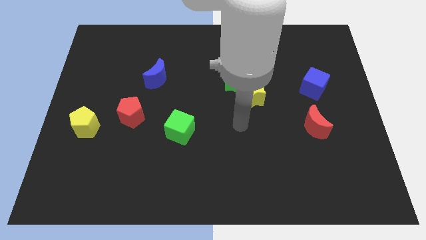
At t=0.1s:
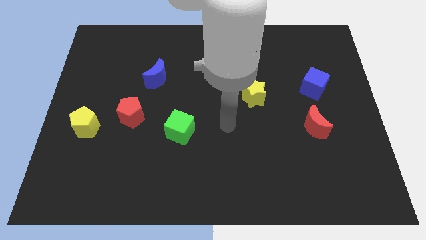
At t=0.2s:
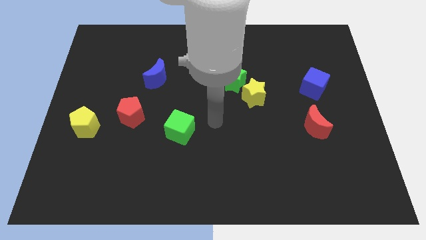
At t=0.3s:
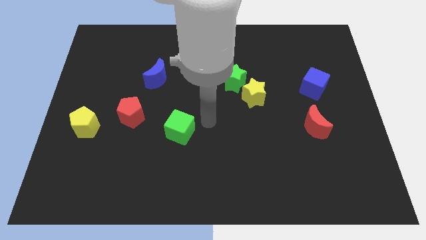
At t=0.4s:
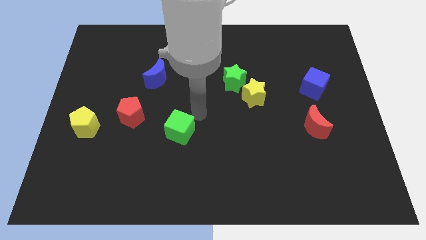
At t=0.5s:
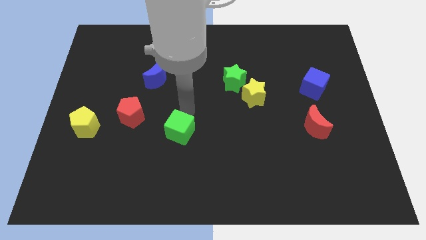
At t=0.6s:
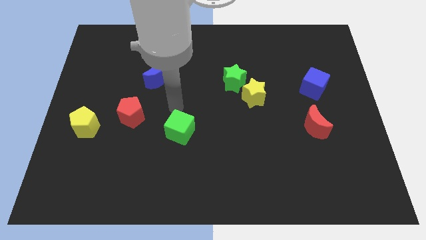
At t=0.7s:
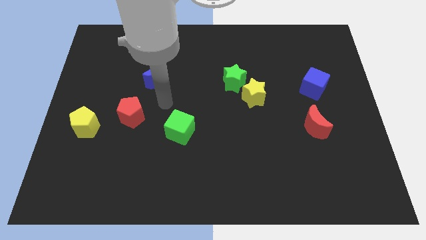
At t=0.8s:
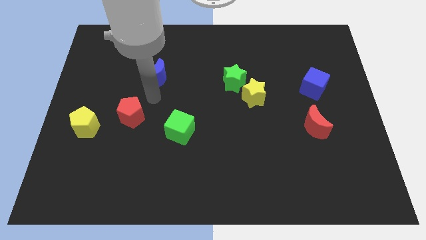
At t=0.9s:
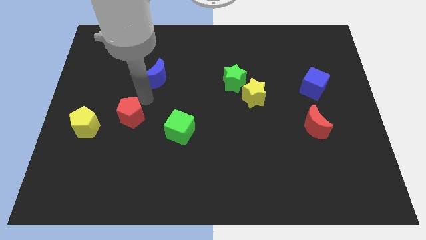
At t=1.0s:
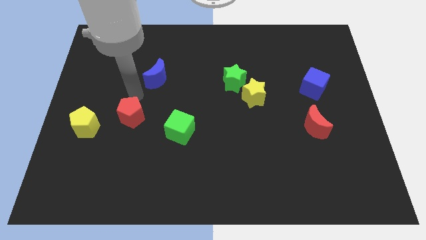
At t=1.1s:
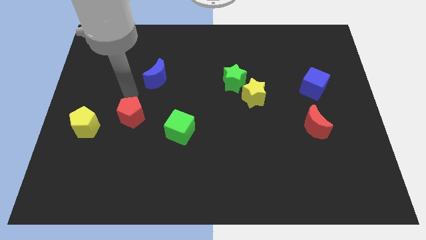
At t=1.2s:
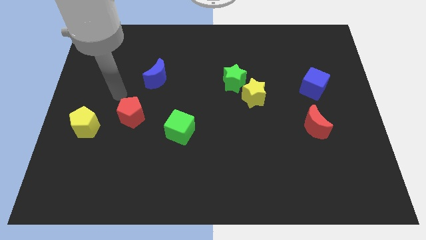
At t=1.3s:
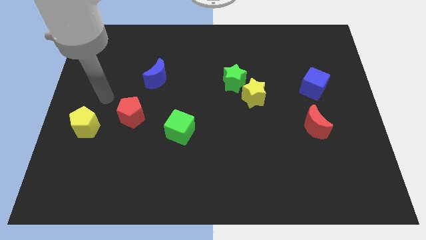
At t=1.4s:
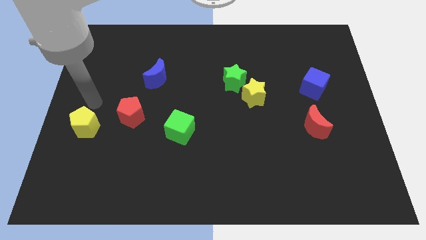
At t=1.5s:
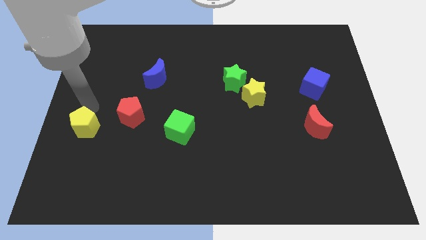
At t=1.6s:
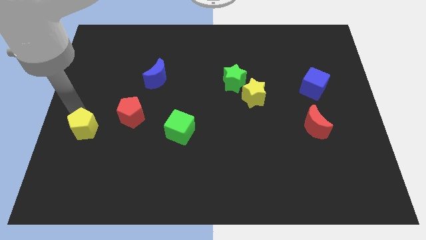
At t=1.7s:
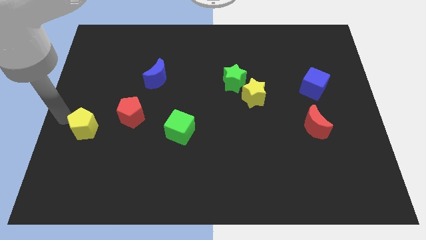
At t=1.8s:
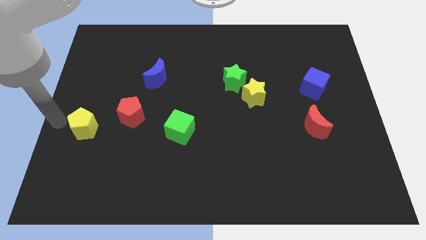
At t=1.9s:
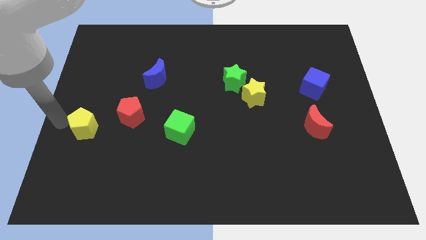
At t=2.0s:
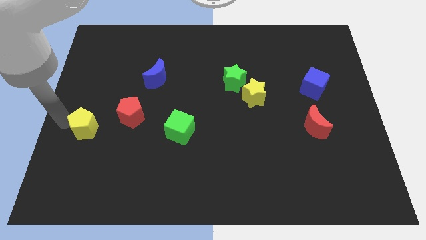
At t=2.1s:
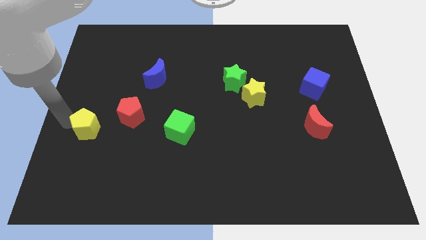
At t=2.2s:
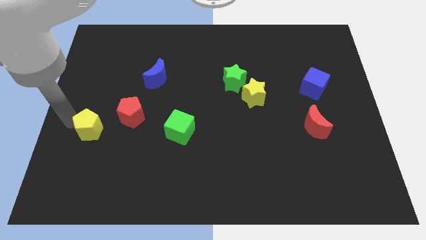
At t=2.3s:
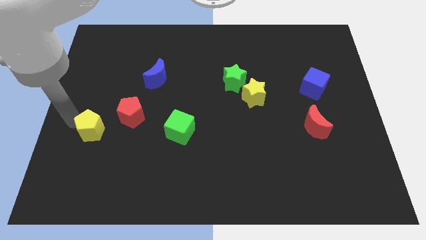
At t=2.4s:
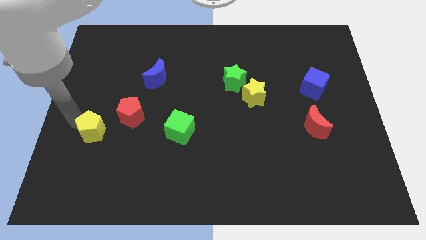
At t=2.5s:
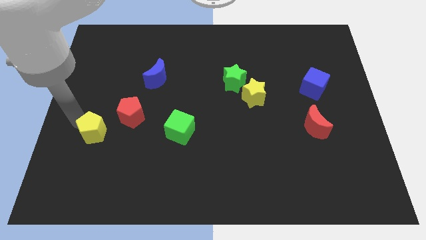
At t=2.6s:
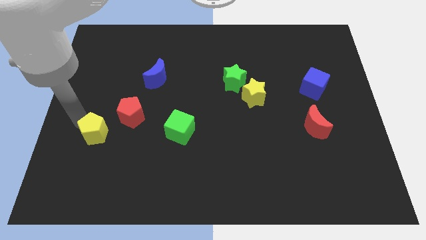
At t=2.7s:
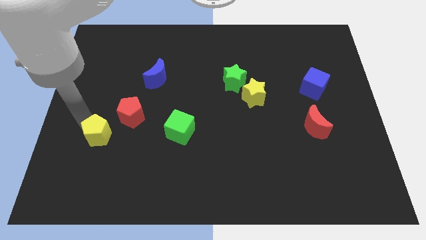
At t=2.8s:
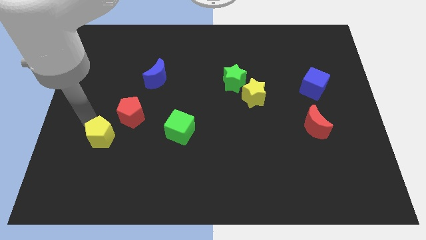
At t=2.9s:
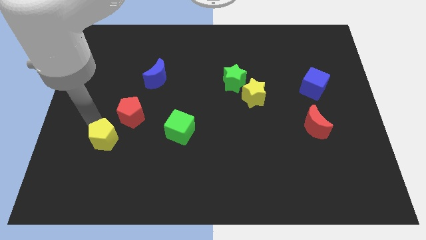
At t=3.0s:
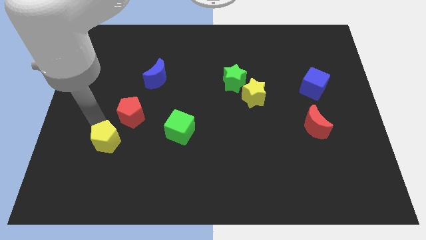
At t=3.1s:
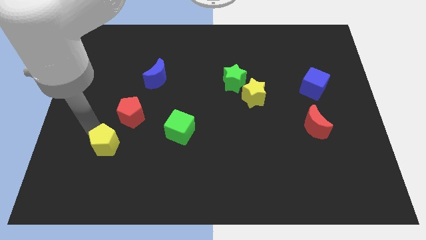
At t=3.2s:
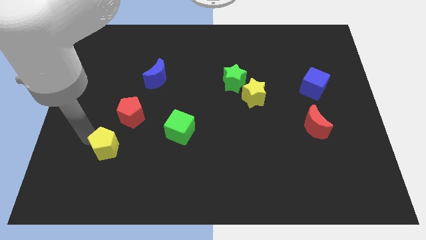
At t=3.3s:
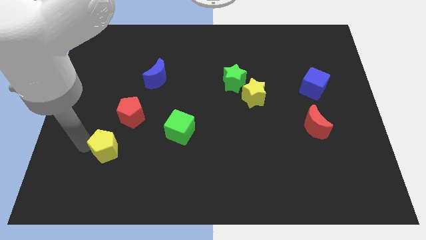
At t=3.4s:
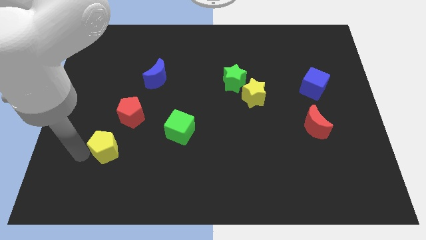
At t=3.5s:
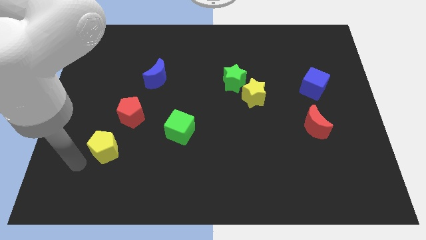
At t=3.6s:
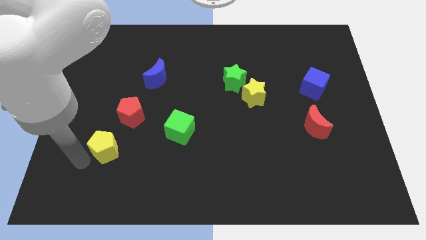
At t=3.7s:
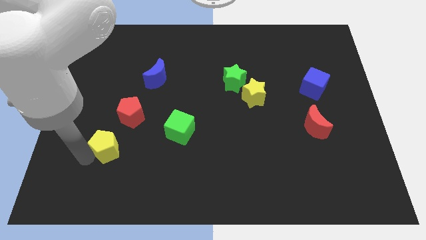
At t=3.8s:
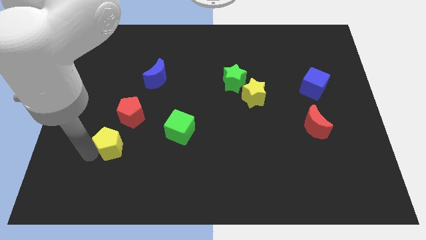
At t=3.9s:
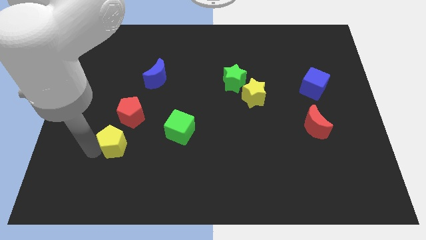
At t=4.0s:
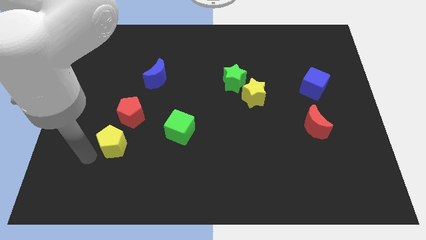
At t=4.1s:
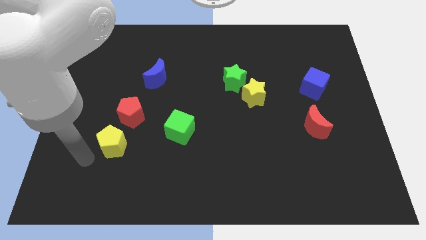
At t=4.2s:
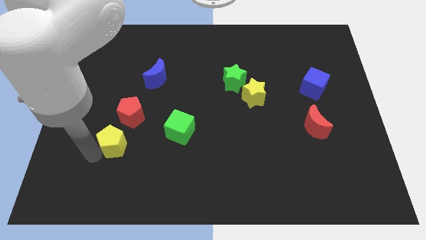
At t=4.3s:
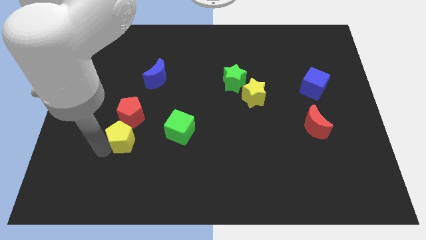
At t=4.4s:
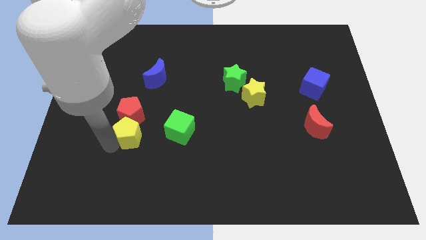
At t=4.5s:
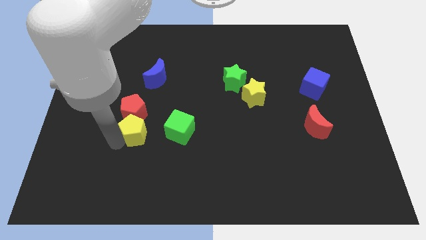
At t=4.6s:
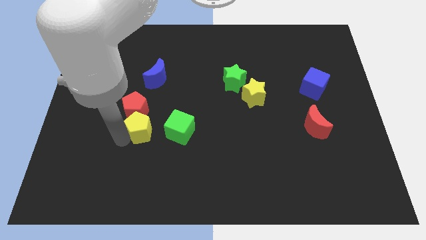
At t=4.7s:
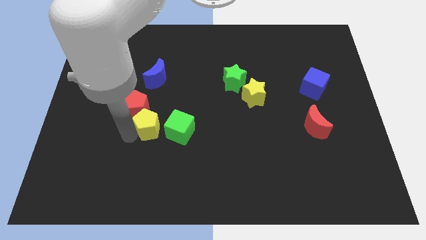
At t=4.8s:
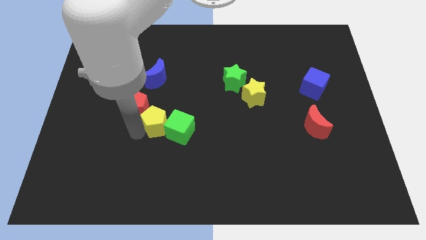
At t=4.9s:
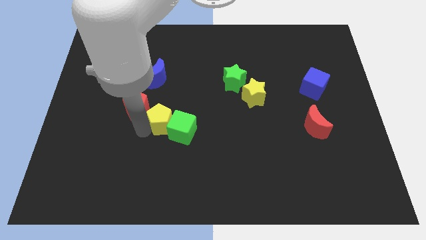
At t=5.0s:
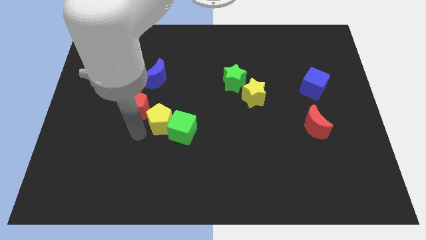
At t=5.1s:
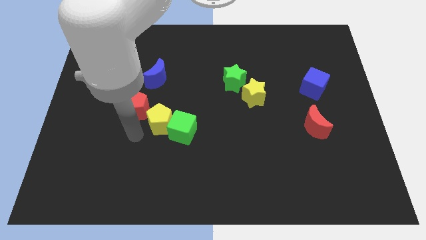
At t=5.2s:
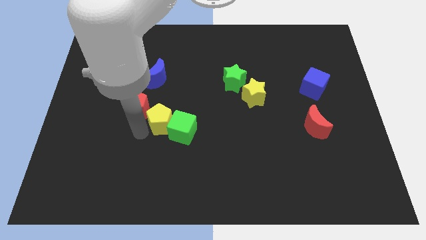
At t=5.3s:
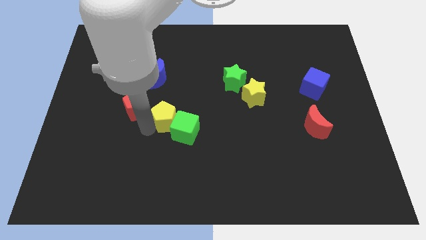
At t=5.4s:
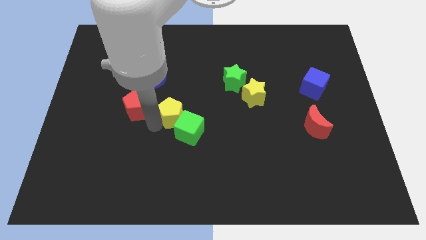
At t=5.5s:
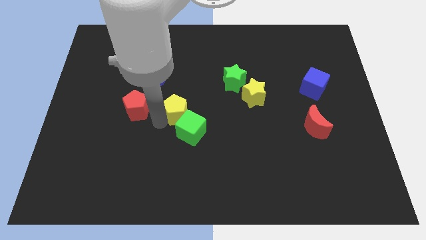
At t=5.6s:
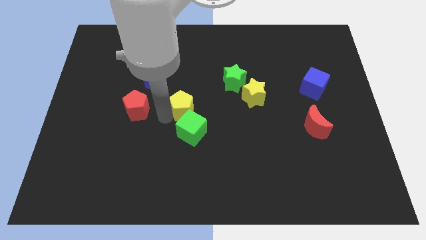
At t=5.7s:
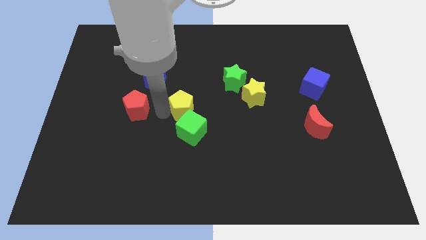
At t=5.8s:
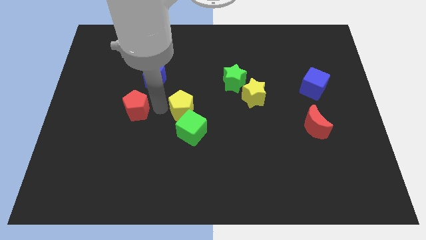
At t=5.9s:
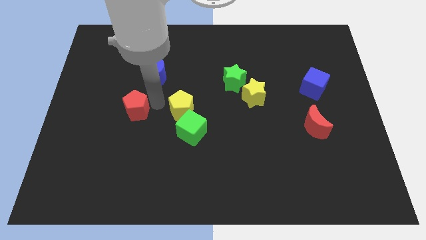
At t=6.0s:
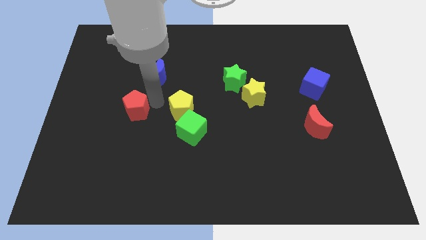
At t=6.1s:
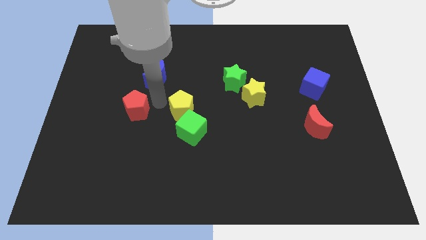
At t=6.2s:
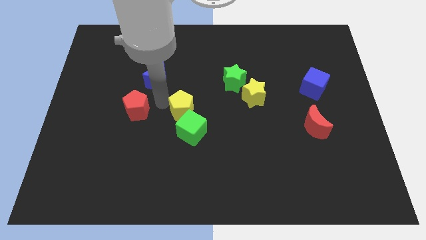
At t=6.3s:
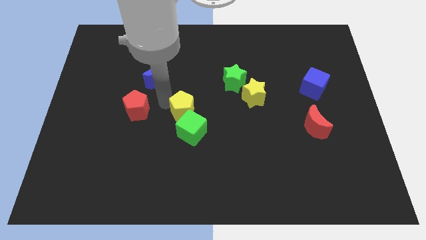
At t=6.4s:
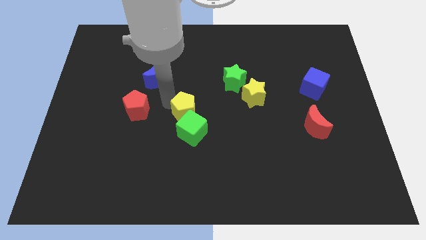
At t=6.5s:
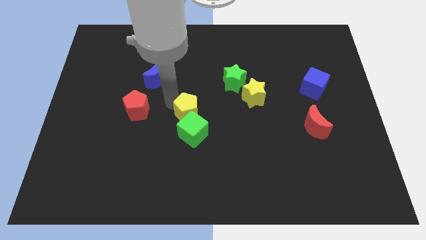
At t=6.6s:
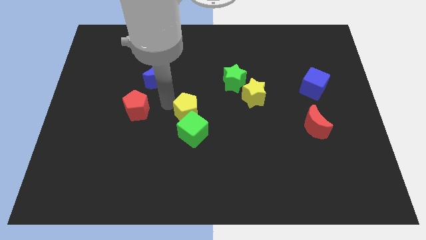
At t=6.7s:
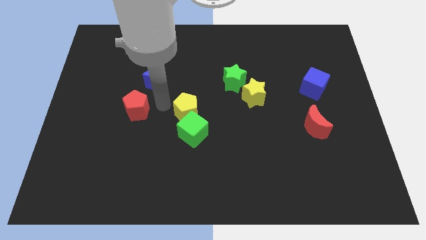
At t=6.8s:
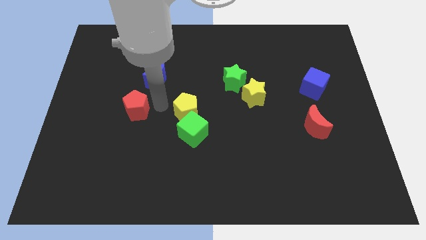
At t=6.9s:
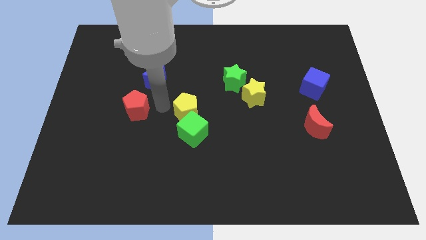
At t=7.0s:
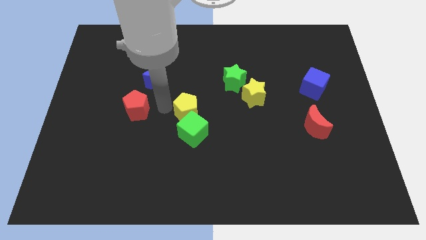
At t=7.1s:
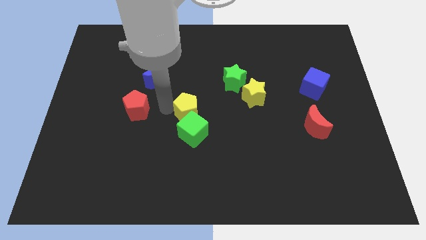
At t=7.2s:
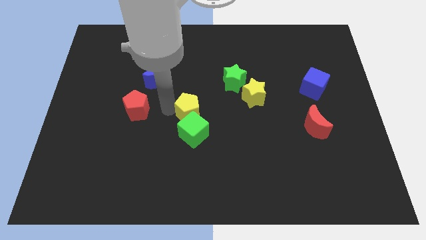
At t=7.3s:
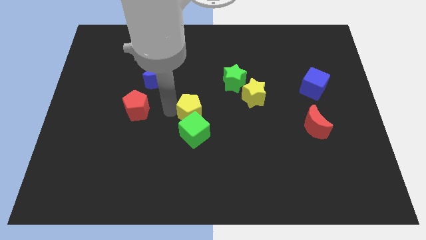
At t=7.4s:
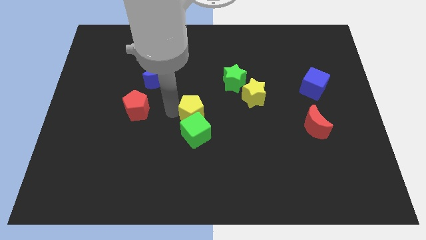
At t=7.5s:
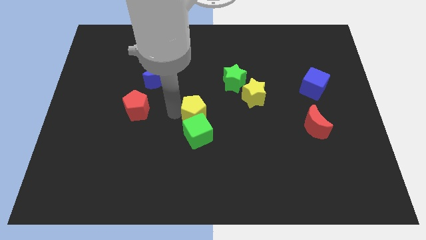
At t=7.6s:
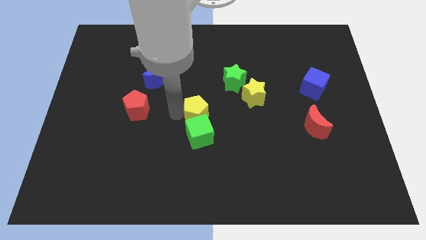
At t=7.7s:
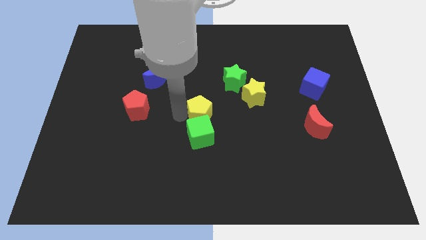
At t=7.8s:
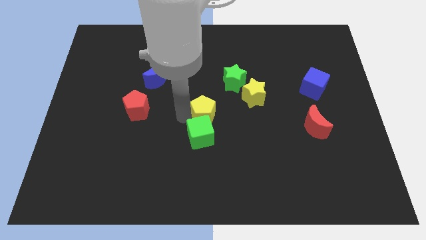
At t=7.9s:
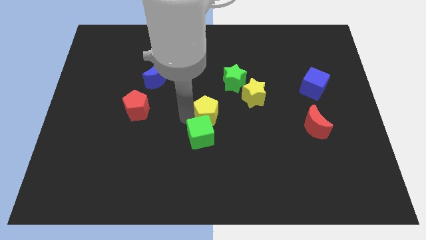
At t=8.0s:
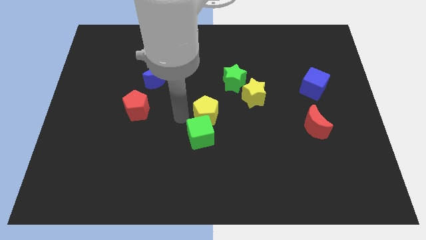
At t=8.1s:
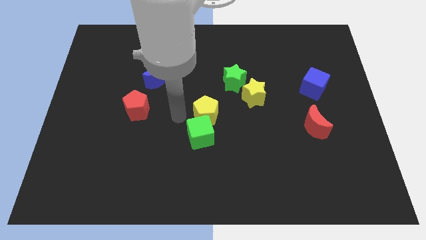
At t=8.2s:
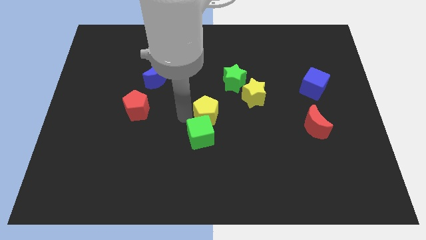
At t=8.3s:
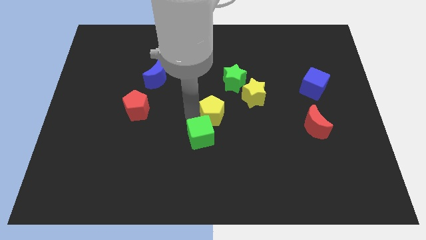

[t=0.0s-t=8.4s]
put the yellow pentagon to the bottom left side of the yellow star
